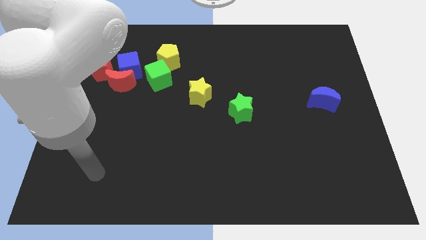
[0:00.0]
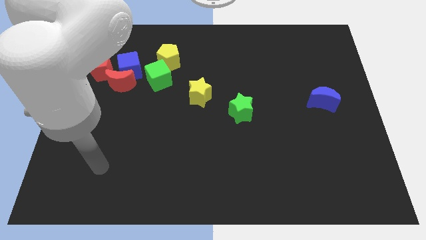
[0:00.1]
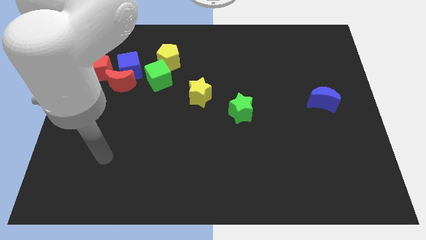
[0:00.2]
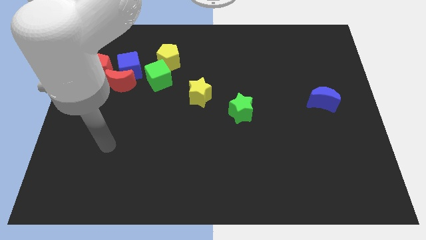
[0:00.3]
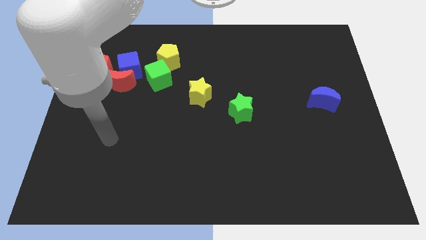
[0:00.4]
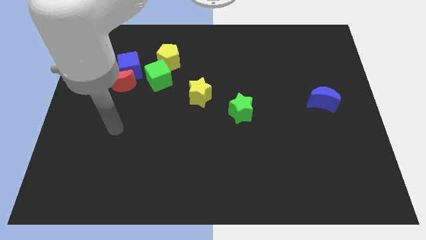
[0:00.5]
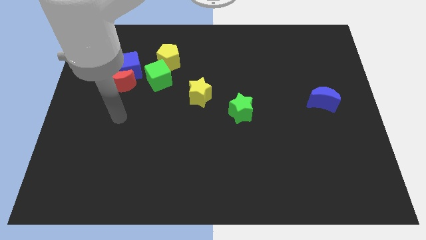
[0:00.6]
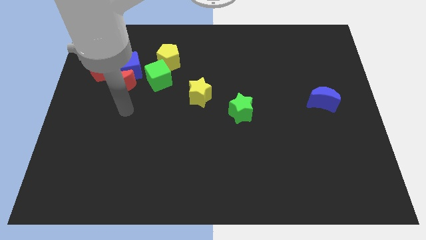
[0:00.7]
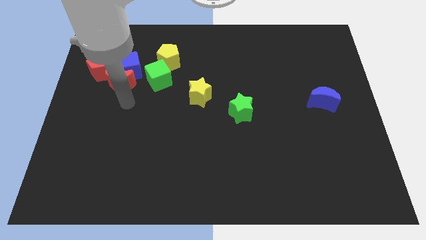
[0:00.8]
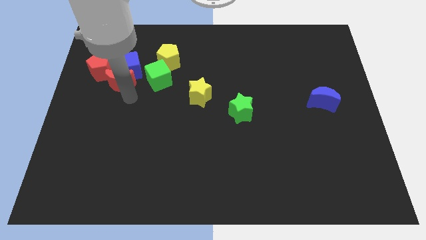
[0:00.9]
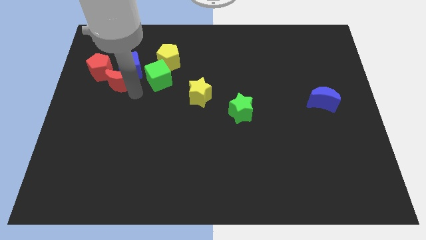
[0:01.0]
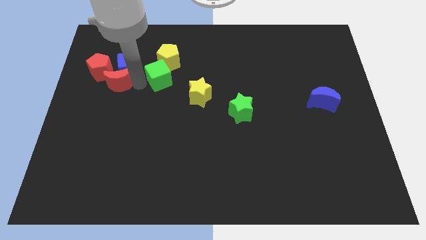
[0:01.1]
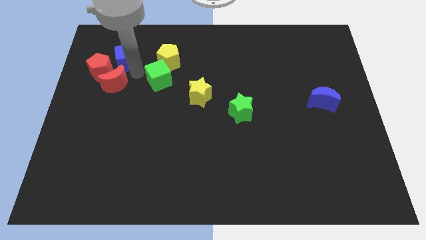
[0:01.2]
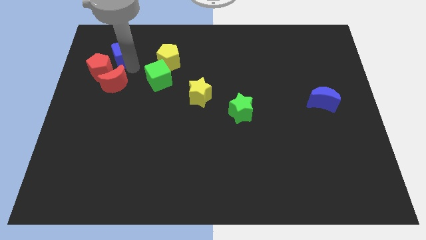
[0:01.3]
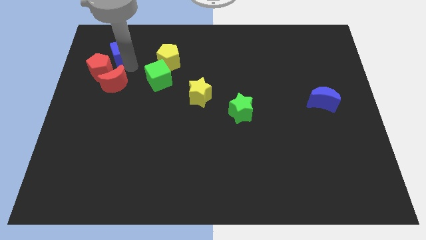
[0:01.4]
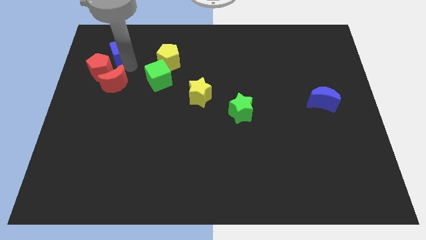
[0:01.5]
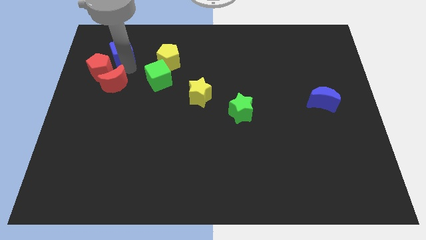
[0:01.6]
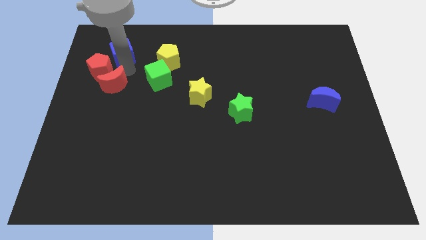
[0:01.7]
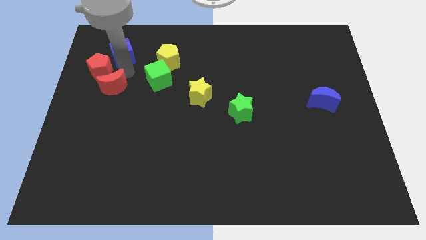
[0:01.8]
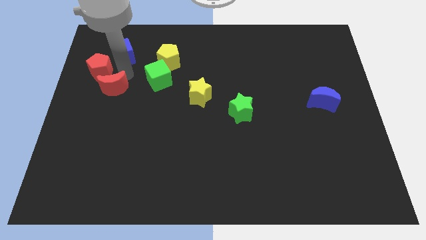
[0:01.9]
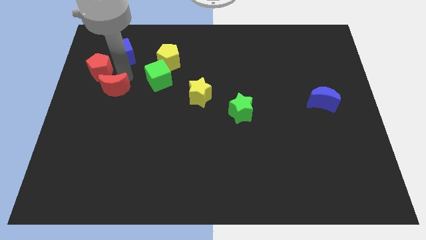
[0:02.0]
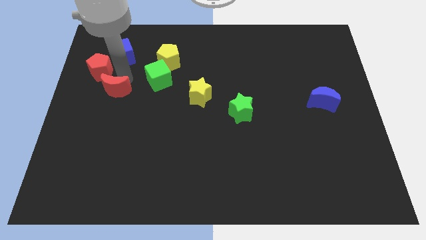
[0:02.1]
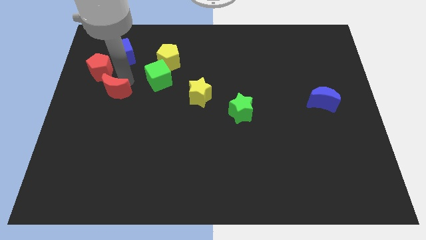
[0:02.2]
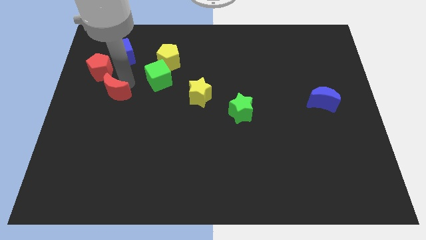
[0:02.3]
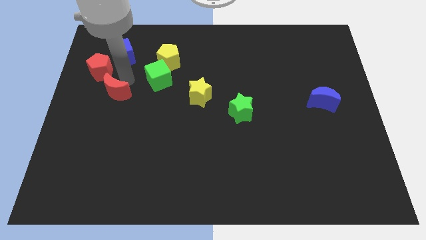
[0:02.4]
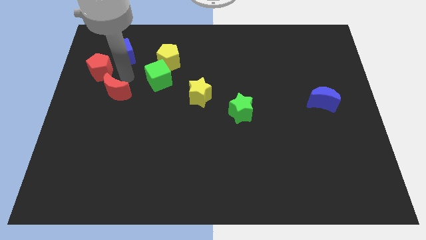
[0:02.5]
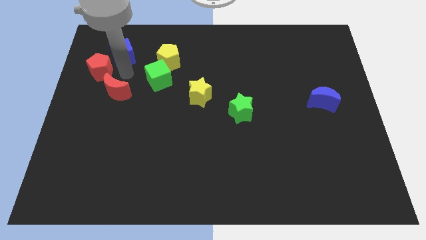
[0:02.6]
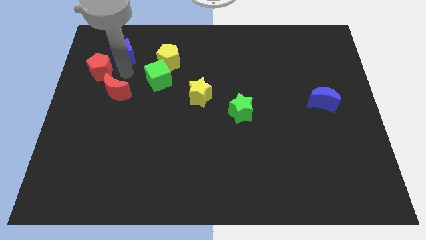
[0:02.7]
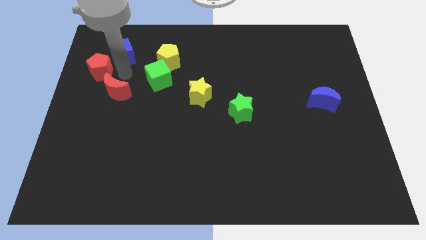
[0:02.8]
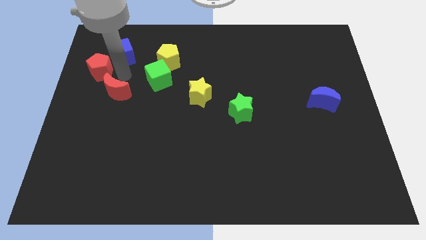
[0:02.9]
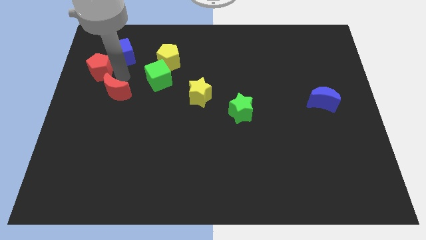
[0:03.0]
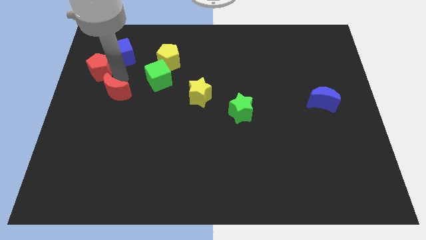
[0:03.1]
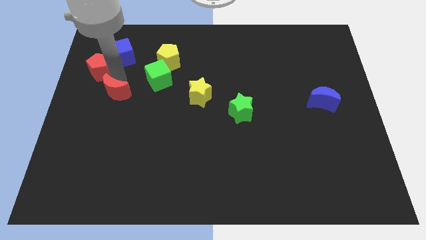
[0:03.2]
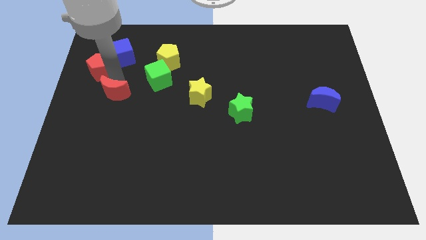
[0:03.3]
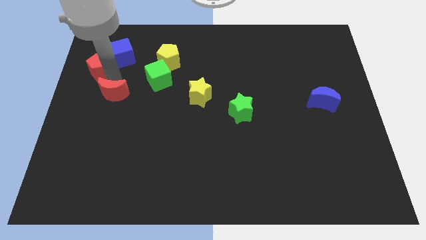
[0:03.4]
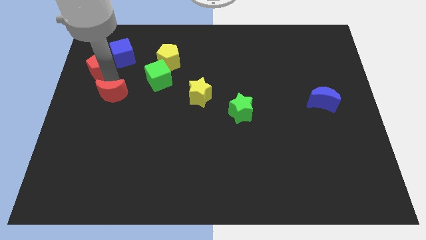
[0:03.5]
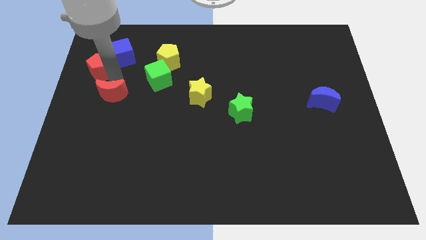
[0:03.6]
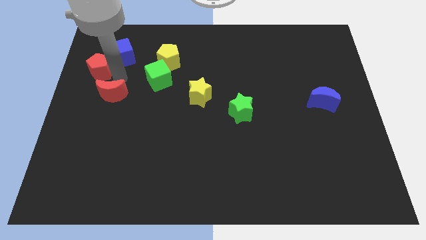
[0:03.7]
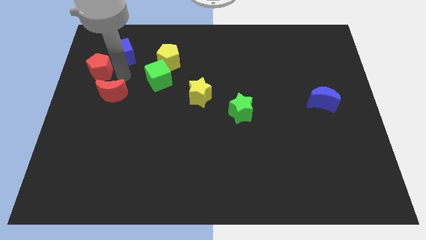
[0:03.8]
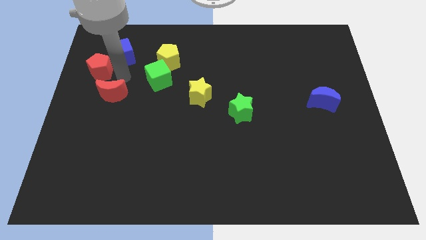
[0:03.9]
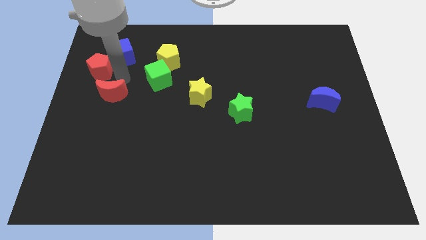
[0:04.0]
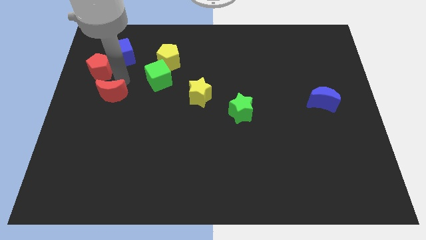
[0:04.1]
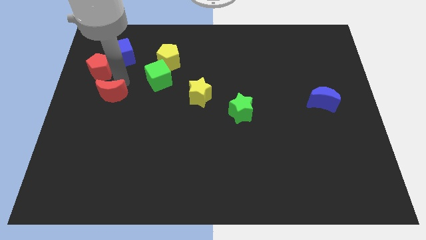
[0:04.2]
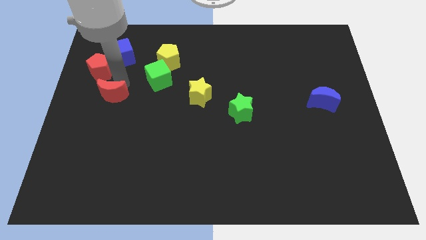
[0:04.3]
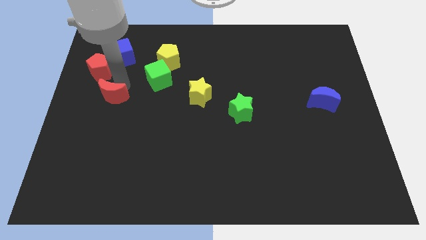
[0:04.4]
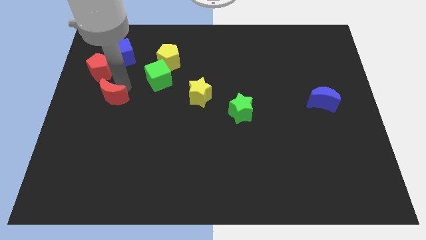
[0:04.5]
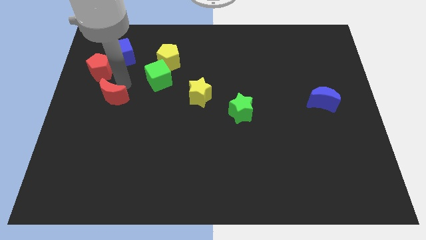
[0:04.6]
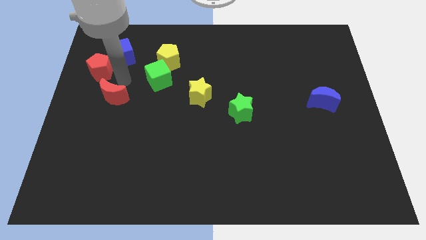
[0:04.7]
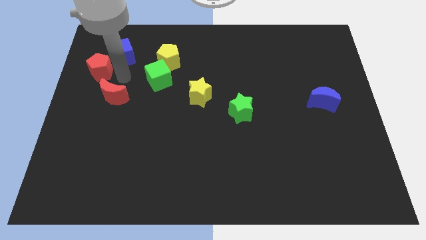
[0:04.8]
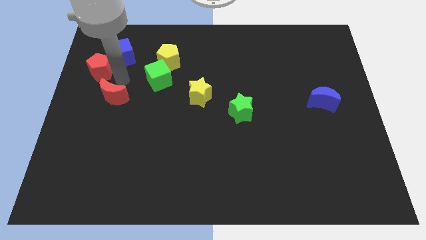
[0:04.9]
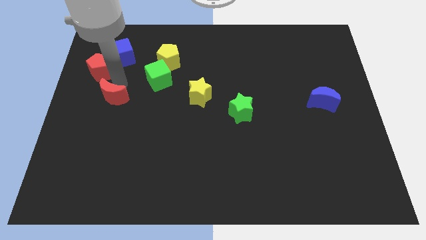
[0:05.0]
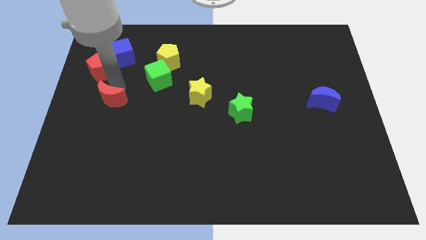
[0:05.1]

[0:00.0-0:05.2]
pull the red moon apart from the blue cube, red pentagon, and green cube

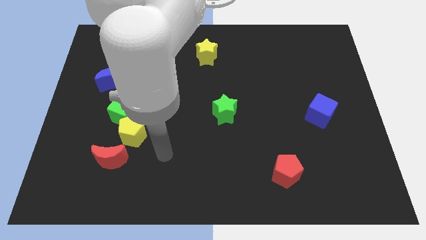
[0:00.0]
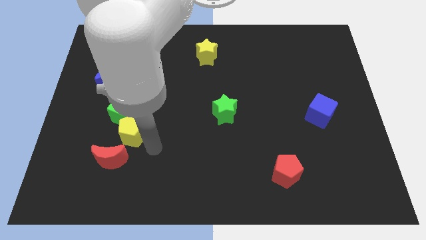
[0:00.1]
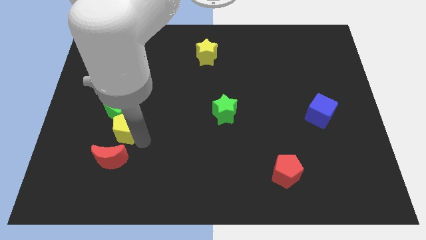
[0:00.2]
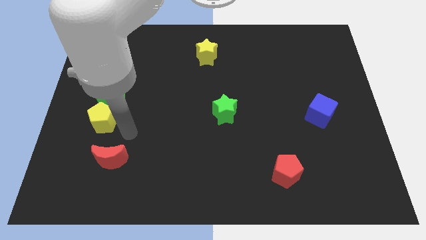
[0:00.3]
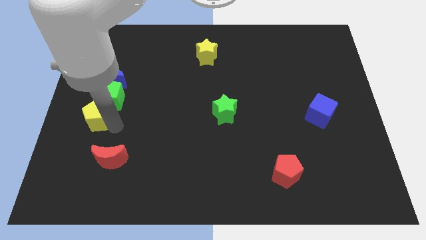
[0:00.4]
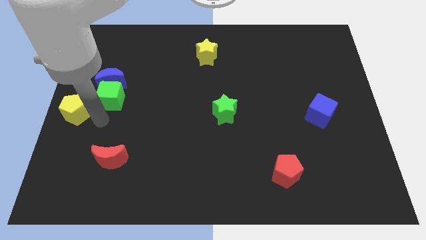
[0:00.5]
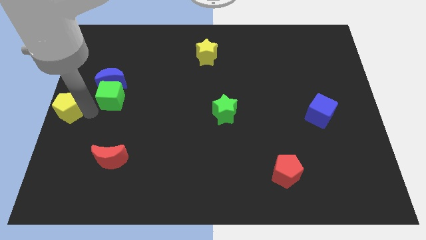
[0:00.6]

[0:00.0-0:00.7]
separate the green cube from the yellow pentagon

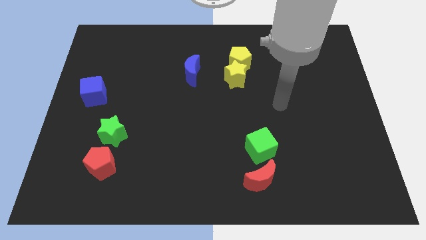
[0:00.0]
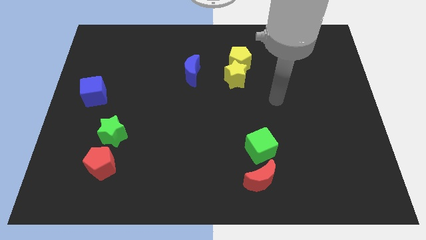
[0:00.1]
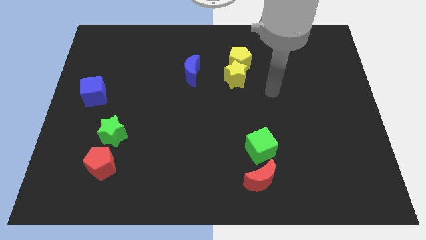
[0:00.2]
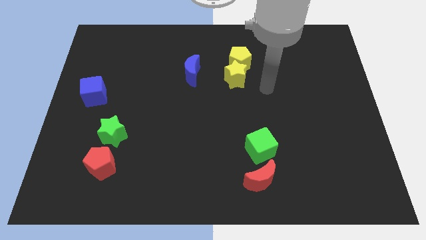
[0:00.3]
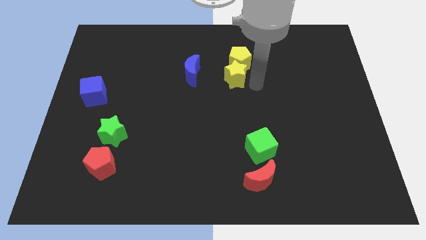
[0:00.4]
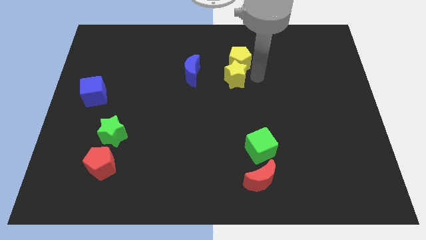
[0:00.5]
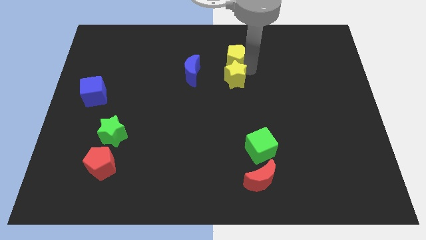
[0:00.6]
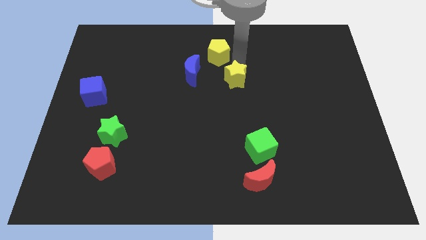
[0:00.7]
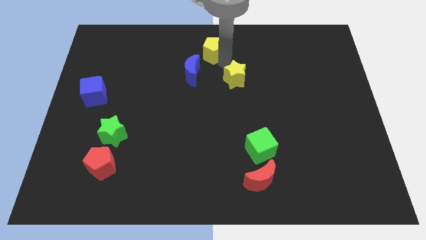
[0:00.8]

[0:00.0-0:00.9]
move the yellow star away from the yellow pentagon

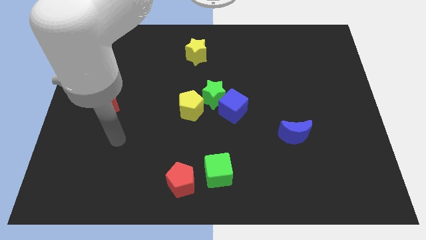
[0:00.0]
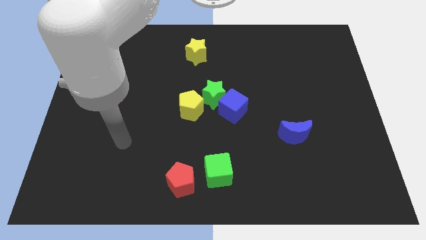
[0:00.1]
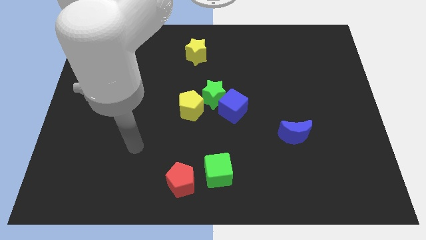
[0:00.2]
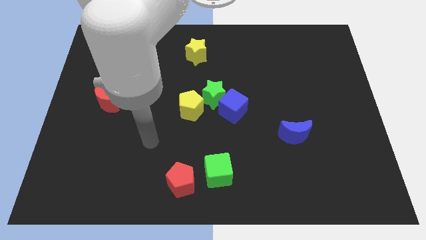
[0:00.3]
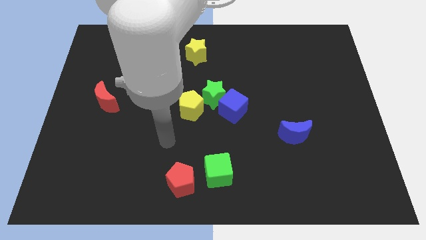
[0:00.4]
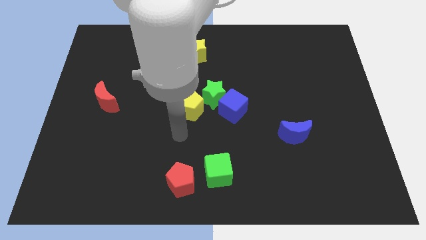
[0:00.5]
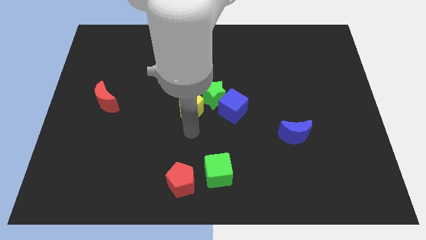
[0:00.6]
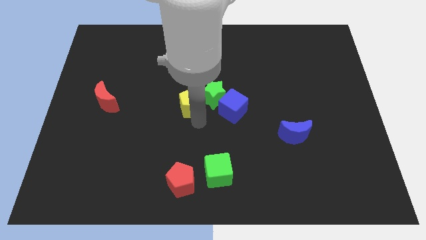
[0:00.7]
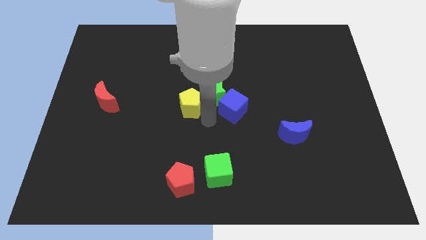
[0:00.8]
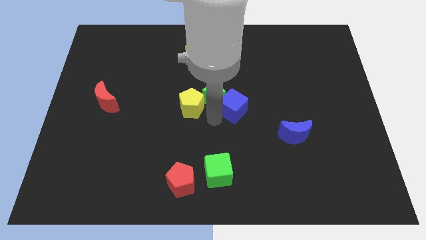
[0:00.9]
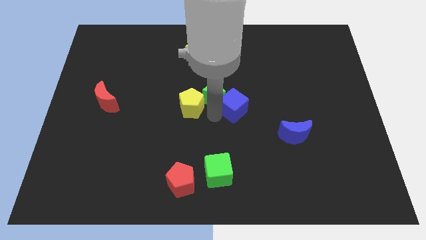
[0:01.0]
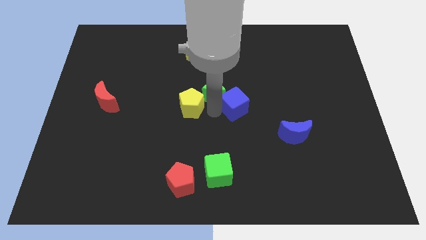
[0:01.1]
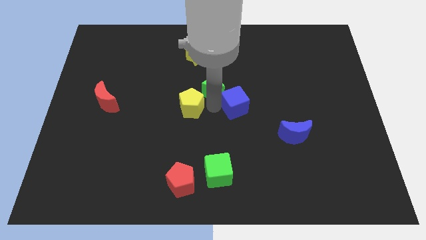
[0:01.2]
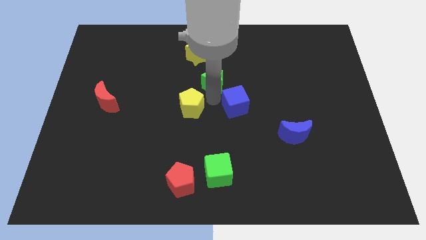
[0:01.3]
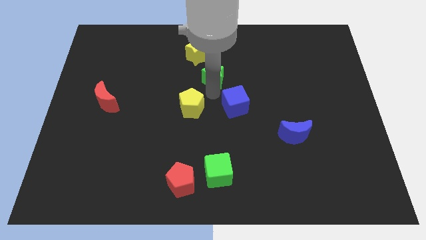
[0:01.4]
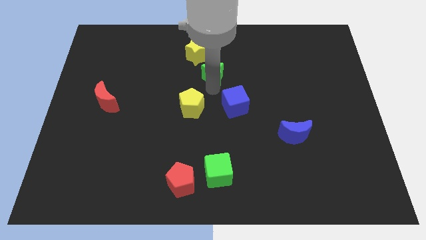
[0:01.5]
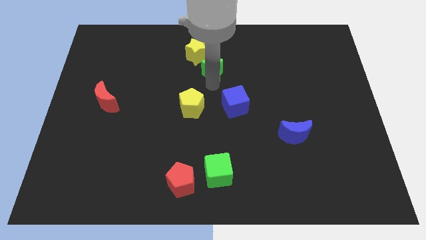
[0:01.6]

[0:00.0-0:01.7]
separate the green star from the blue cube and yellow pentagon

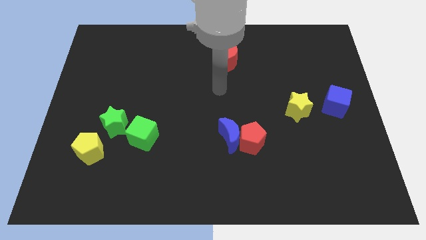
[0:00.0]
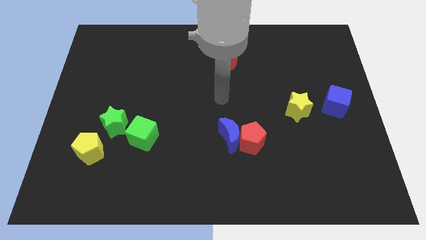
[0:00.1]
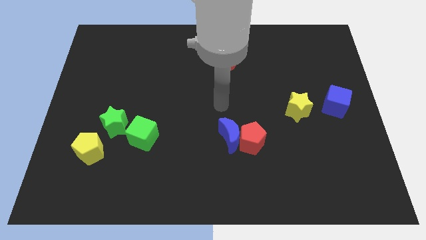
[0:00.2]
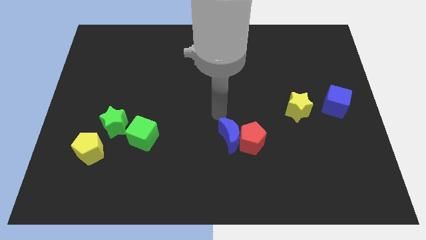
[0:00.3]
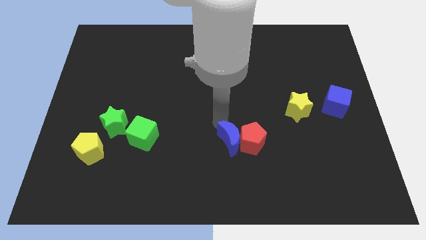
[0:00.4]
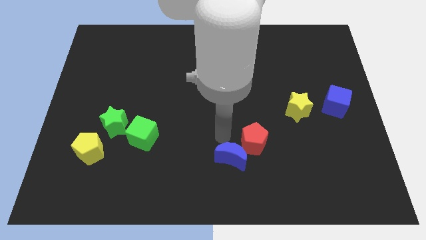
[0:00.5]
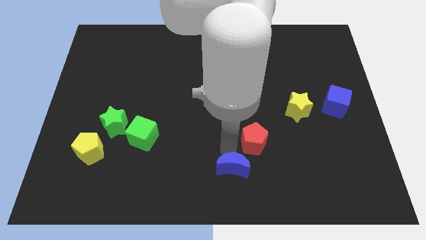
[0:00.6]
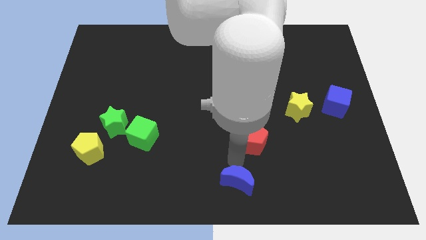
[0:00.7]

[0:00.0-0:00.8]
separate the red pentagon from the blue moon
